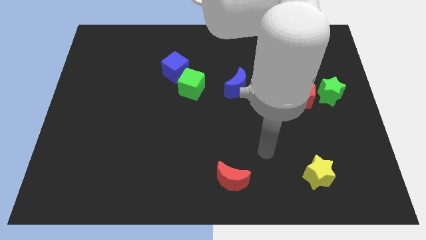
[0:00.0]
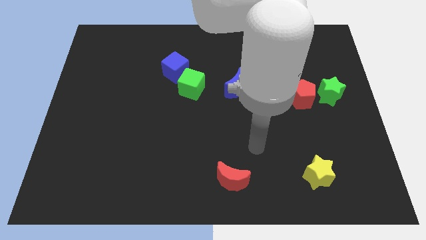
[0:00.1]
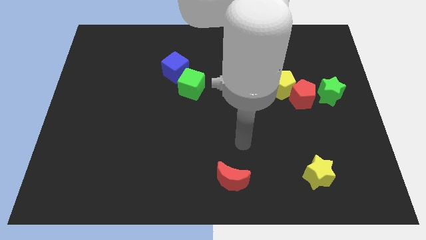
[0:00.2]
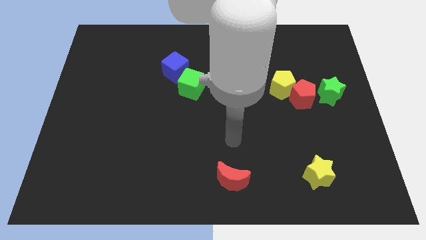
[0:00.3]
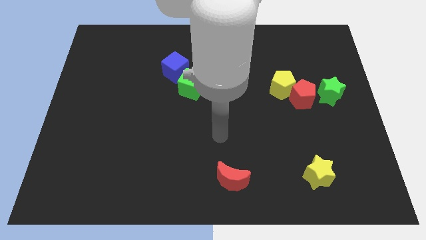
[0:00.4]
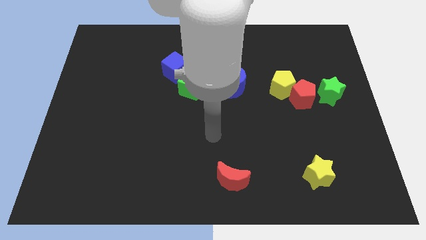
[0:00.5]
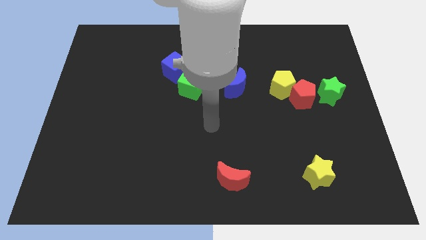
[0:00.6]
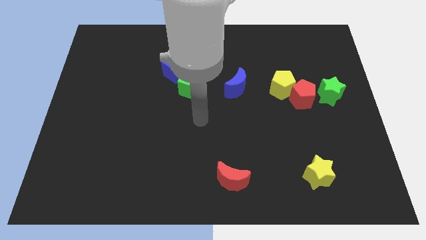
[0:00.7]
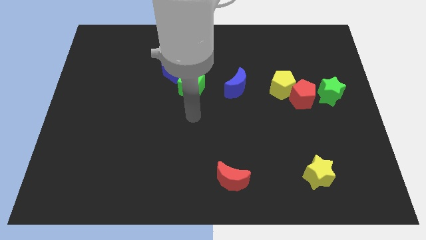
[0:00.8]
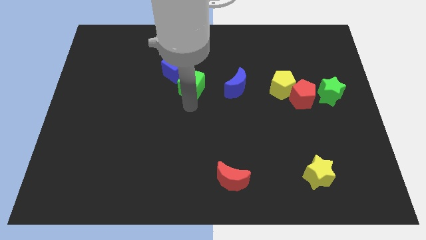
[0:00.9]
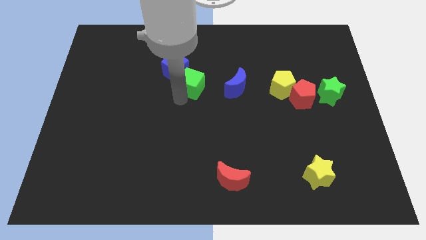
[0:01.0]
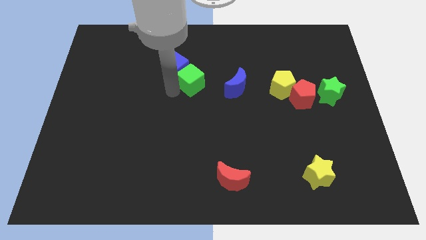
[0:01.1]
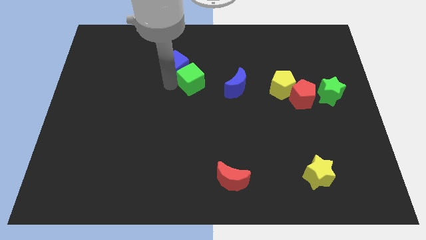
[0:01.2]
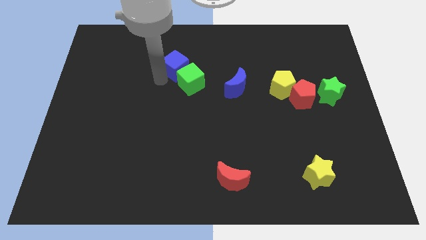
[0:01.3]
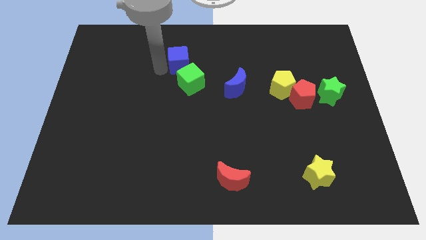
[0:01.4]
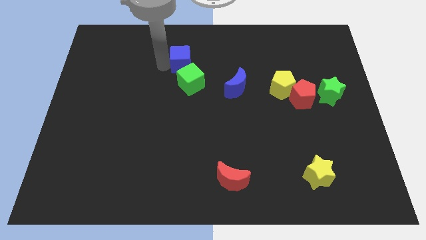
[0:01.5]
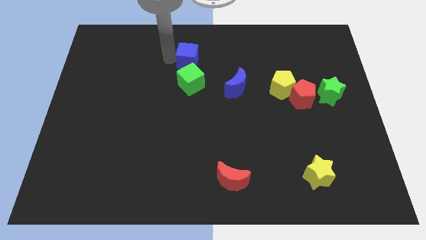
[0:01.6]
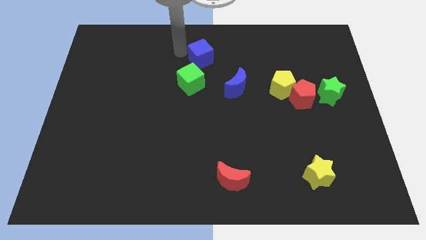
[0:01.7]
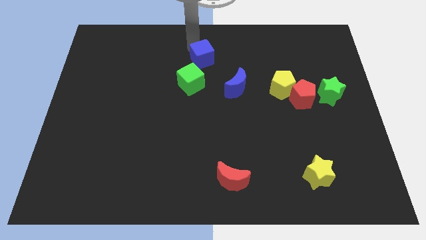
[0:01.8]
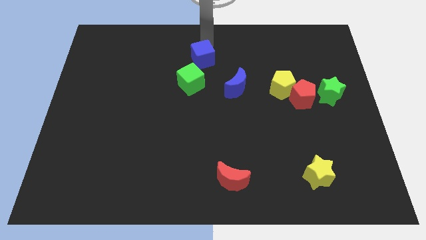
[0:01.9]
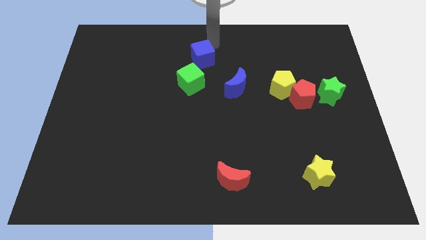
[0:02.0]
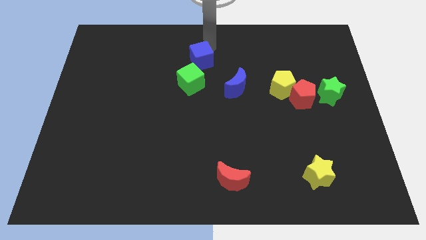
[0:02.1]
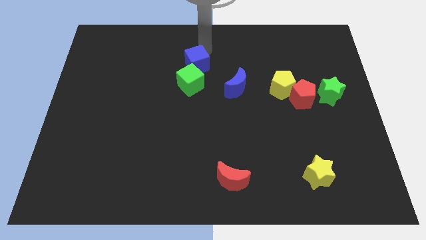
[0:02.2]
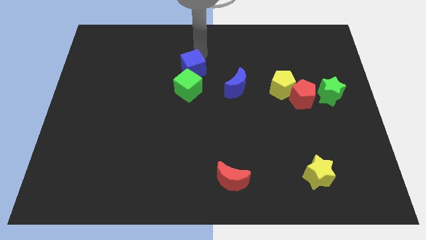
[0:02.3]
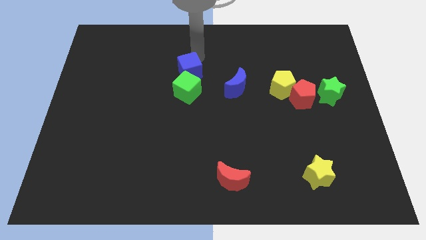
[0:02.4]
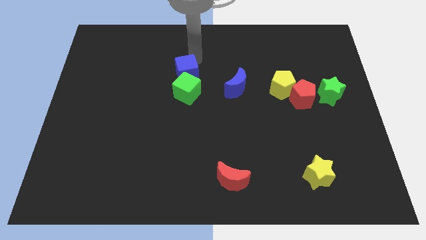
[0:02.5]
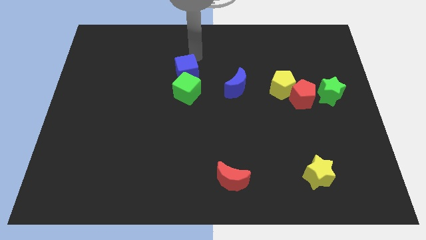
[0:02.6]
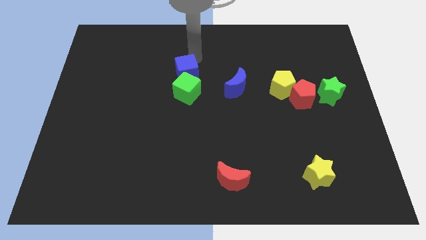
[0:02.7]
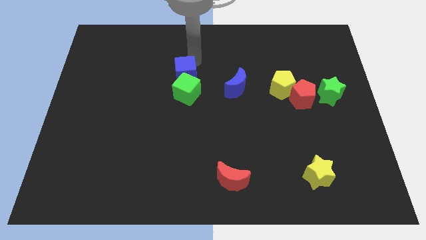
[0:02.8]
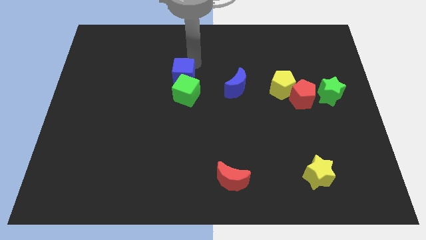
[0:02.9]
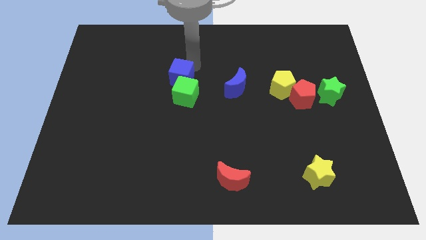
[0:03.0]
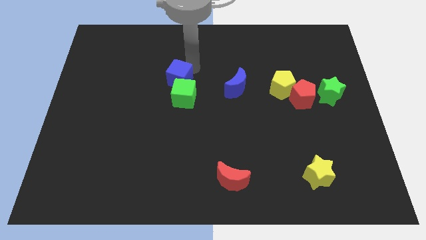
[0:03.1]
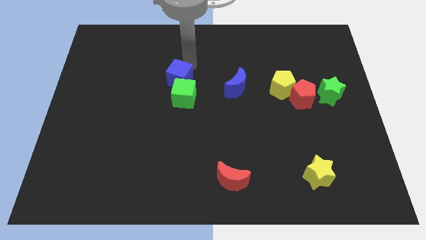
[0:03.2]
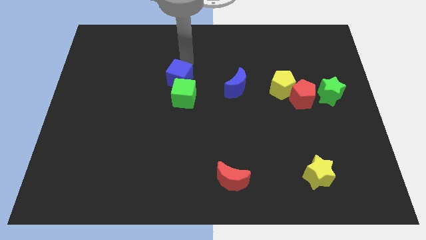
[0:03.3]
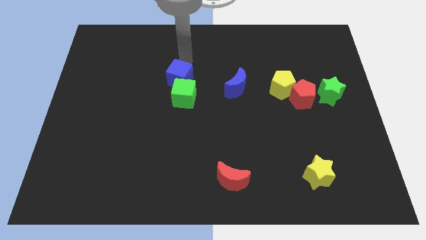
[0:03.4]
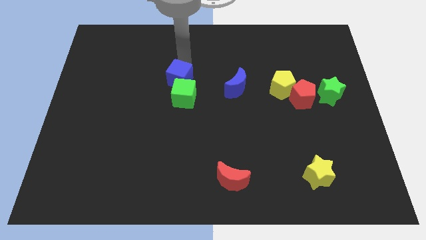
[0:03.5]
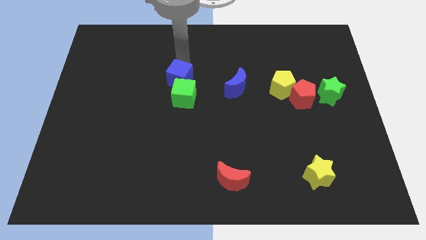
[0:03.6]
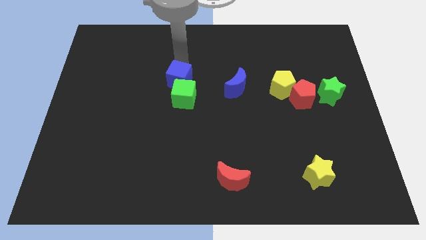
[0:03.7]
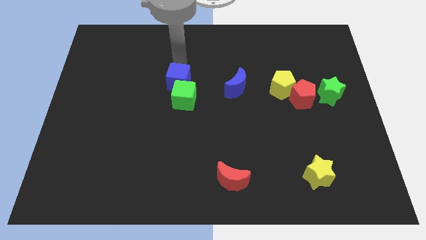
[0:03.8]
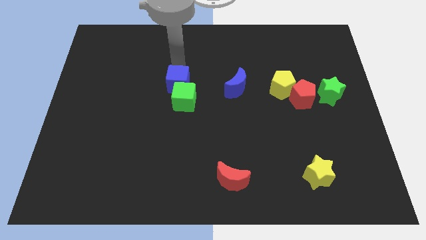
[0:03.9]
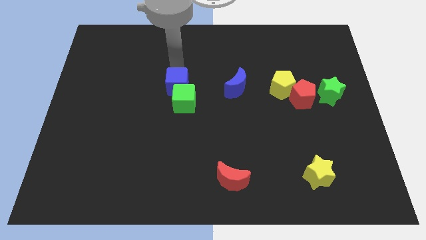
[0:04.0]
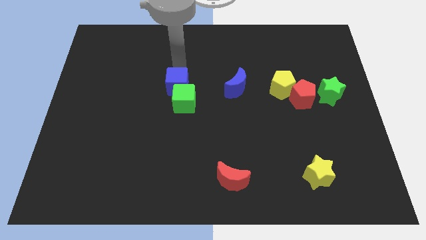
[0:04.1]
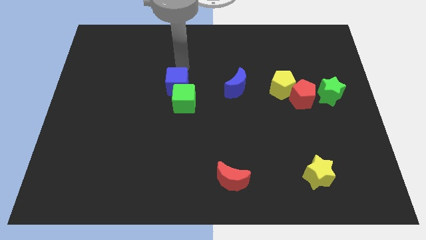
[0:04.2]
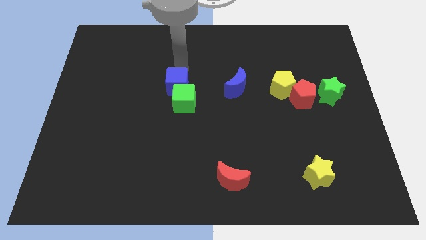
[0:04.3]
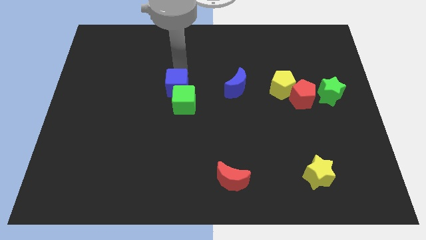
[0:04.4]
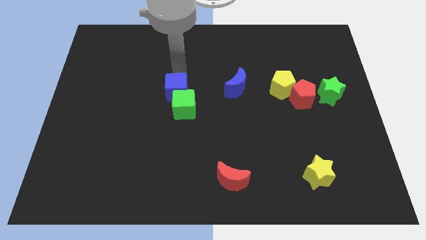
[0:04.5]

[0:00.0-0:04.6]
move the blue cube somewhat downwards

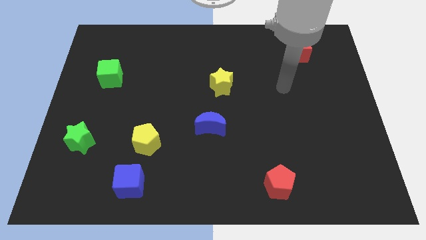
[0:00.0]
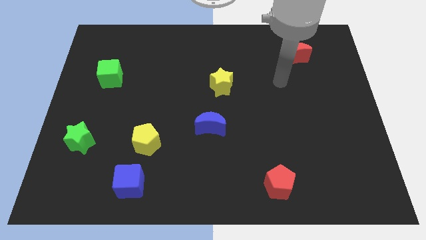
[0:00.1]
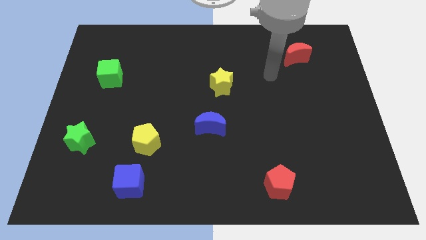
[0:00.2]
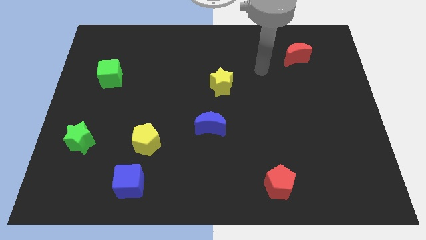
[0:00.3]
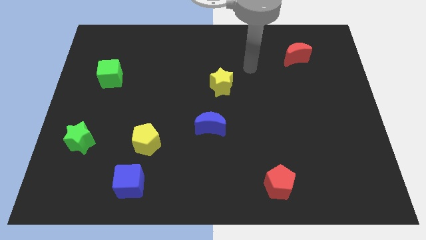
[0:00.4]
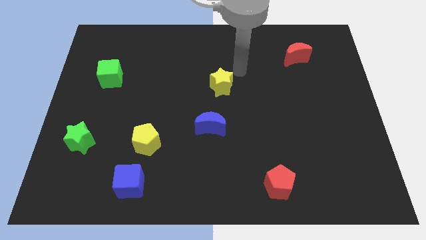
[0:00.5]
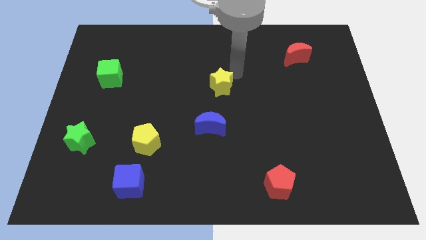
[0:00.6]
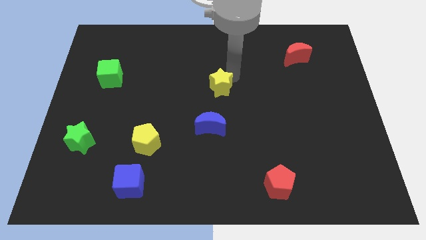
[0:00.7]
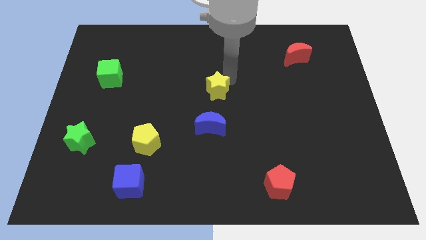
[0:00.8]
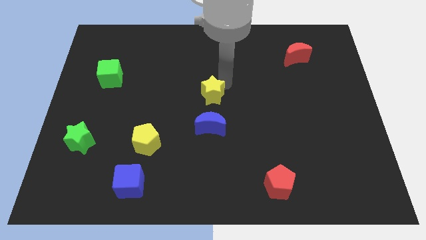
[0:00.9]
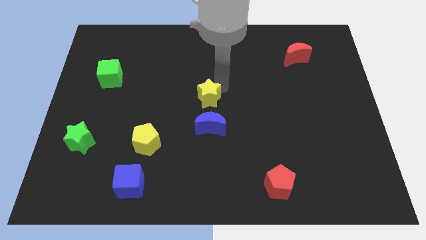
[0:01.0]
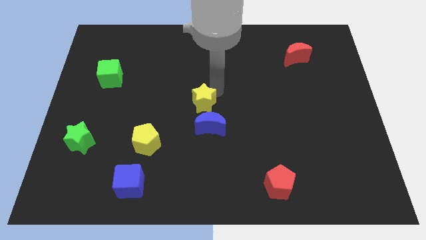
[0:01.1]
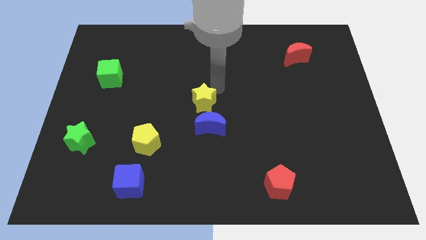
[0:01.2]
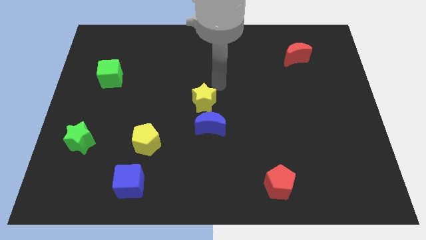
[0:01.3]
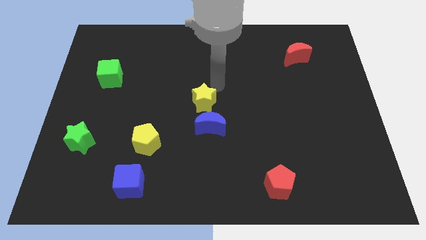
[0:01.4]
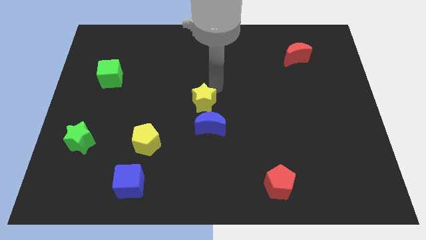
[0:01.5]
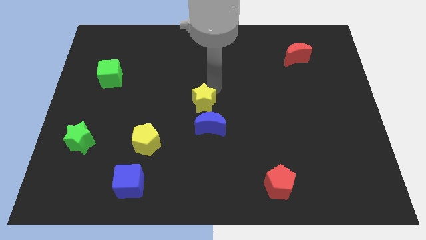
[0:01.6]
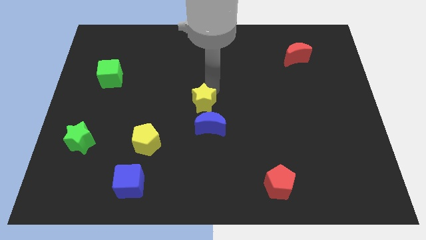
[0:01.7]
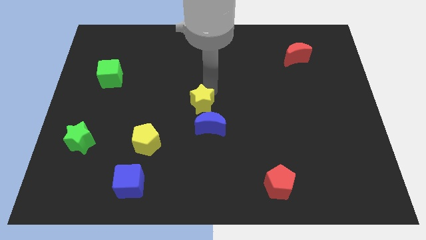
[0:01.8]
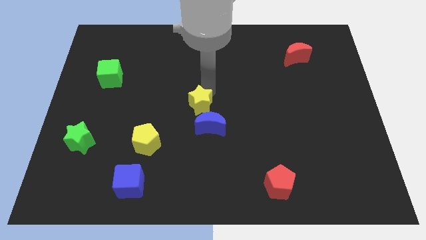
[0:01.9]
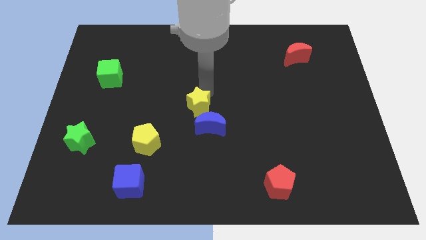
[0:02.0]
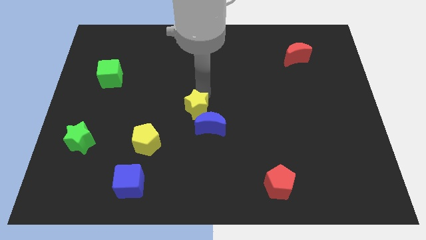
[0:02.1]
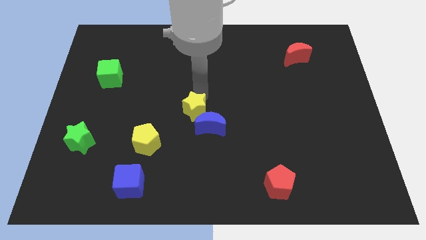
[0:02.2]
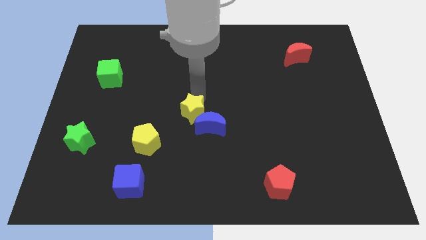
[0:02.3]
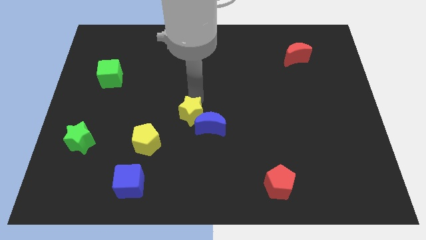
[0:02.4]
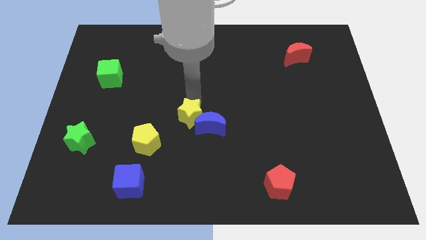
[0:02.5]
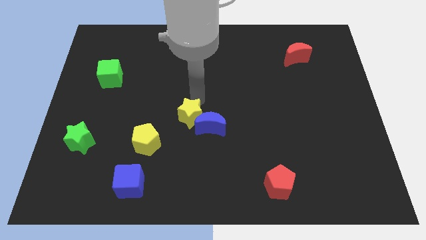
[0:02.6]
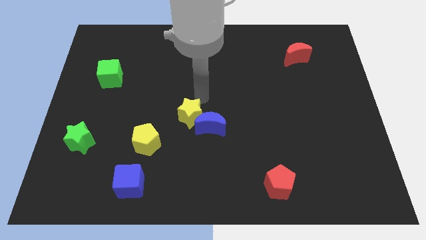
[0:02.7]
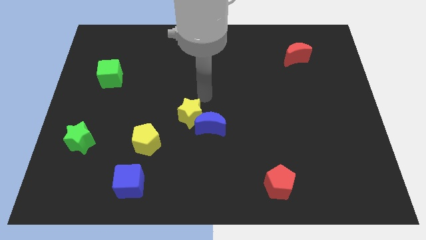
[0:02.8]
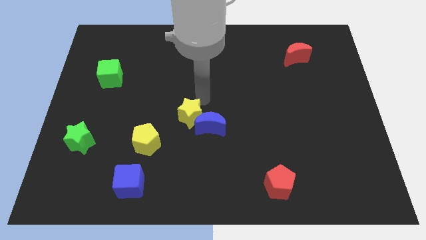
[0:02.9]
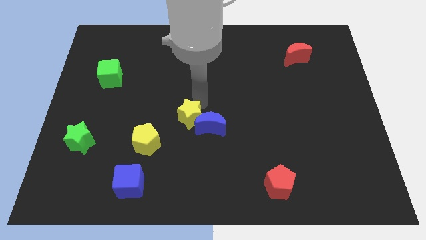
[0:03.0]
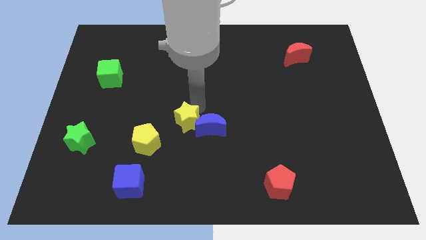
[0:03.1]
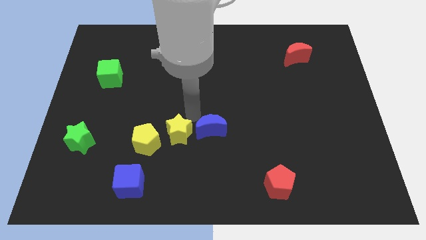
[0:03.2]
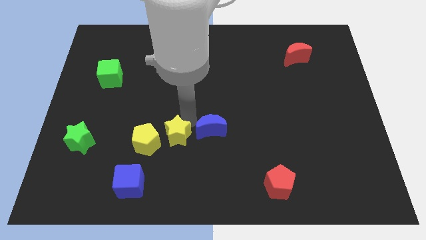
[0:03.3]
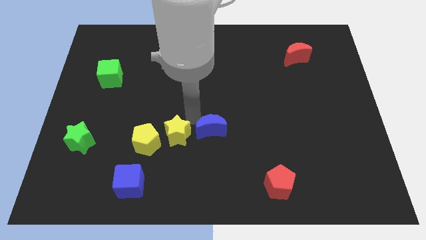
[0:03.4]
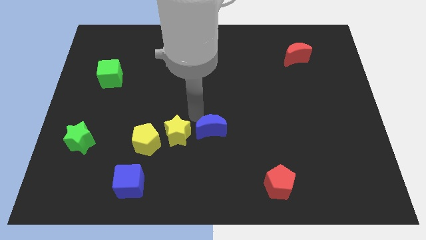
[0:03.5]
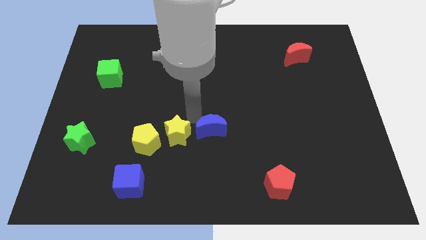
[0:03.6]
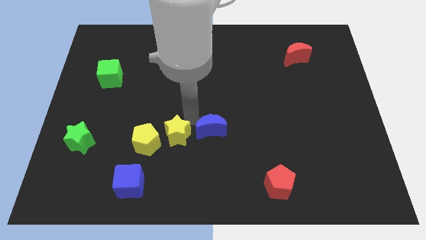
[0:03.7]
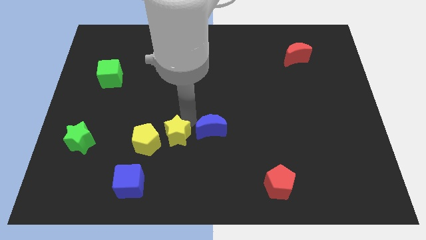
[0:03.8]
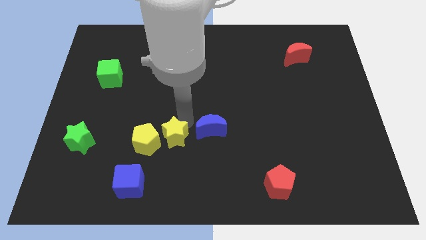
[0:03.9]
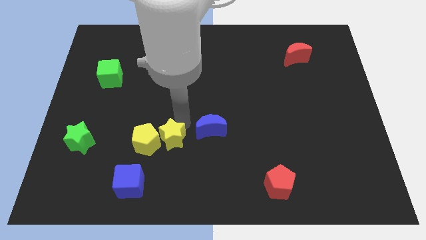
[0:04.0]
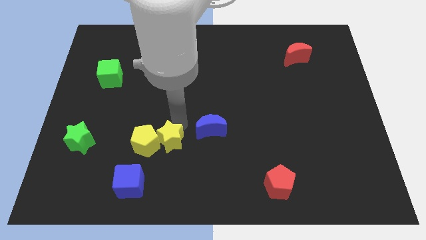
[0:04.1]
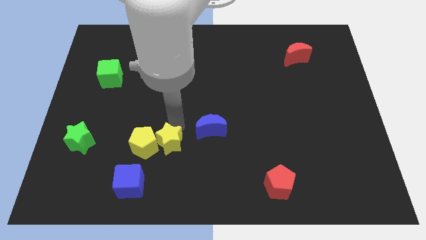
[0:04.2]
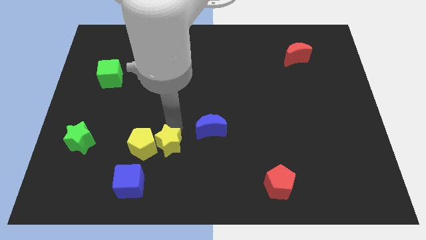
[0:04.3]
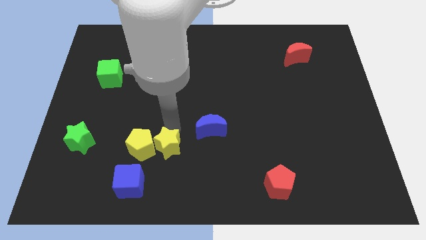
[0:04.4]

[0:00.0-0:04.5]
move the yellow star diagonally downwards and to the left
